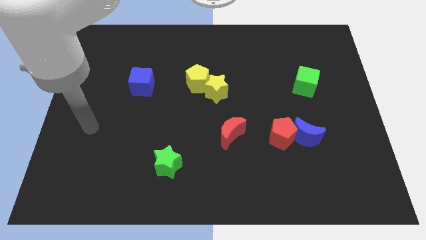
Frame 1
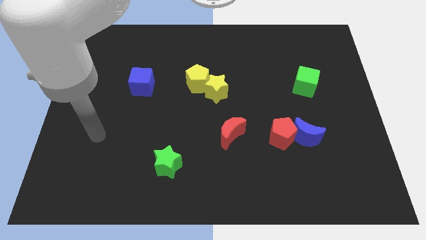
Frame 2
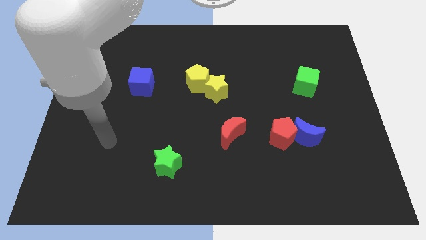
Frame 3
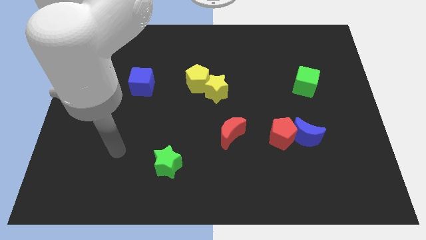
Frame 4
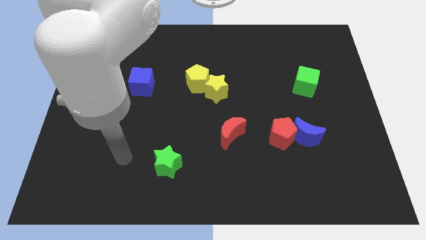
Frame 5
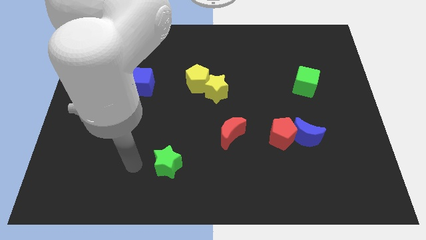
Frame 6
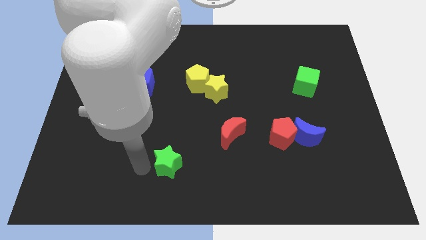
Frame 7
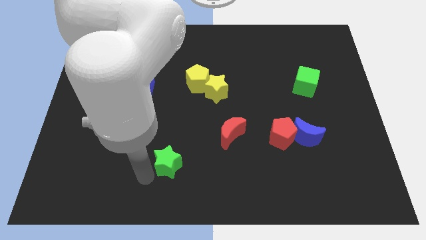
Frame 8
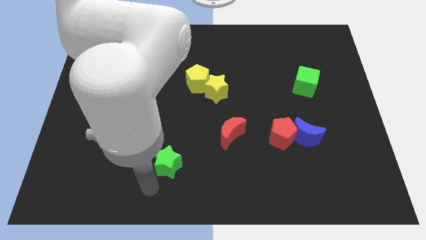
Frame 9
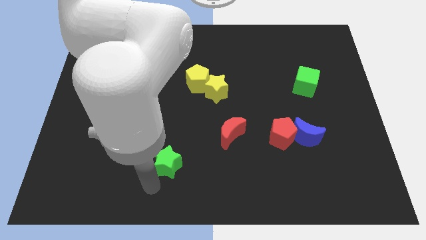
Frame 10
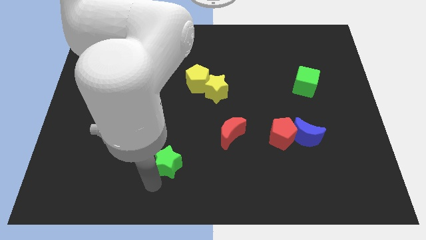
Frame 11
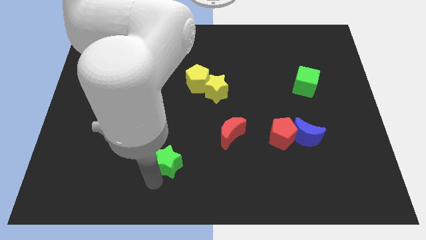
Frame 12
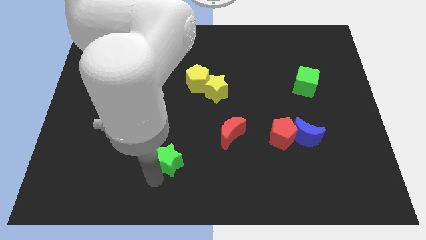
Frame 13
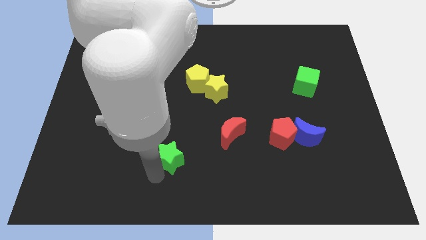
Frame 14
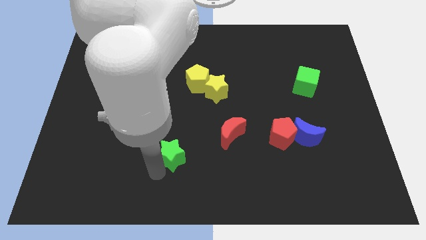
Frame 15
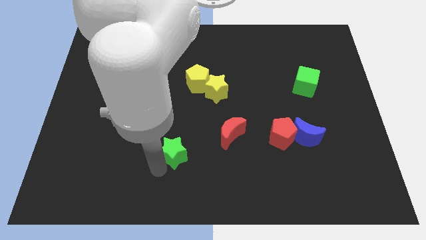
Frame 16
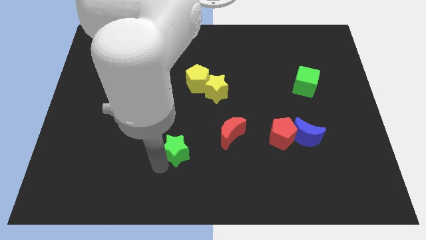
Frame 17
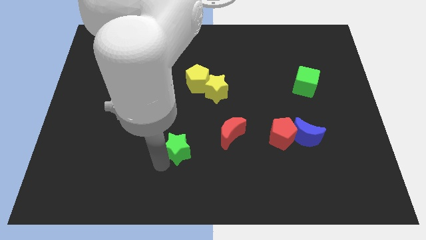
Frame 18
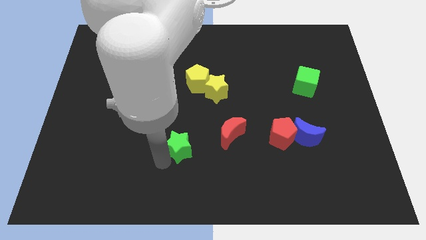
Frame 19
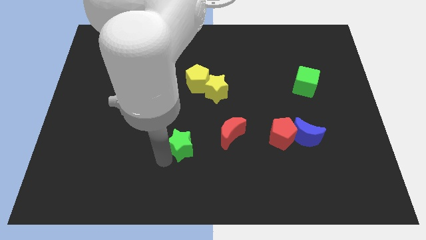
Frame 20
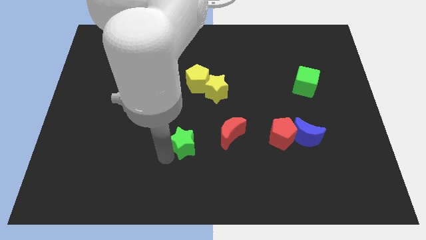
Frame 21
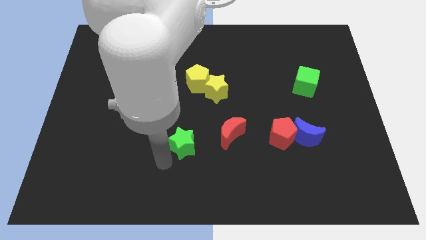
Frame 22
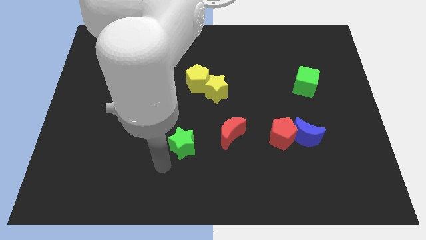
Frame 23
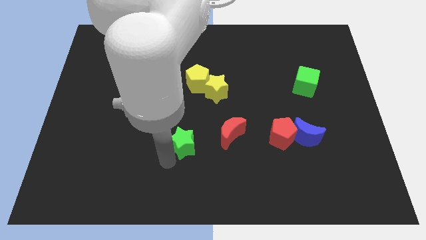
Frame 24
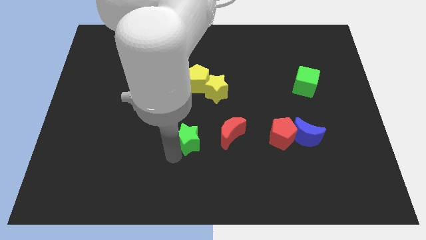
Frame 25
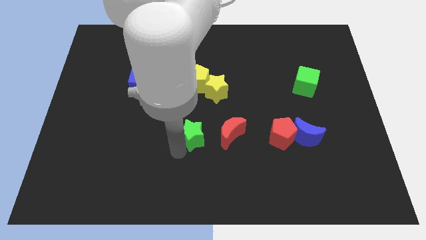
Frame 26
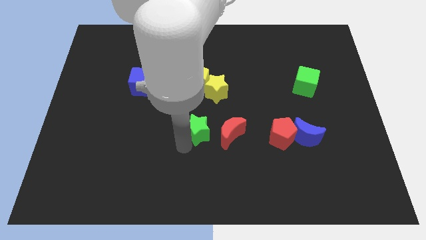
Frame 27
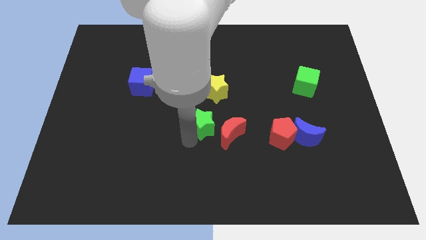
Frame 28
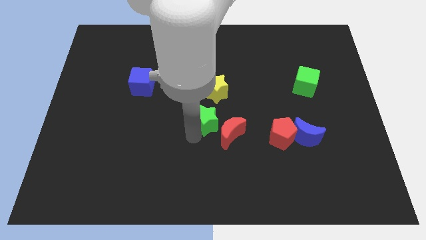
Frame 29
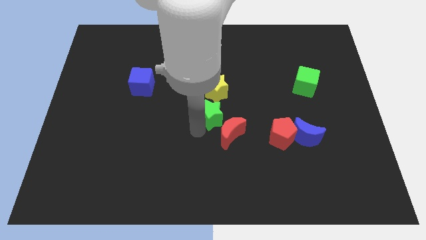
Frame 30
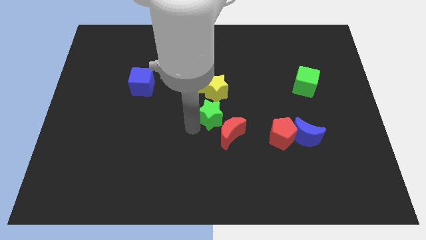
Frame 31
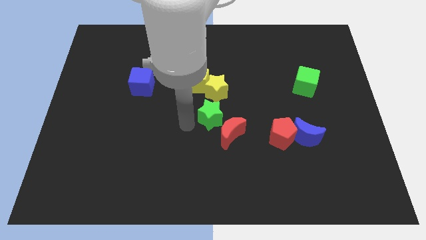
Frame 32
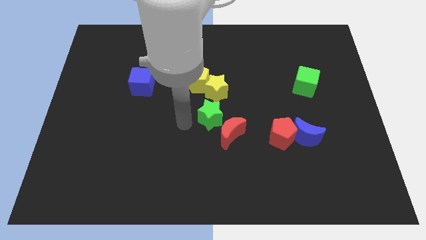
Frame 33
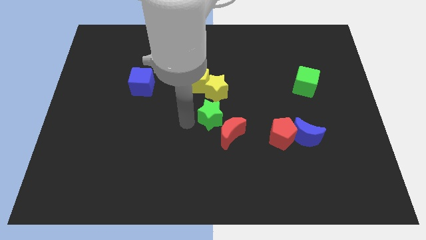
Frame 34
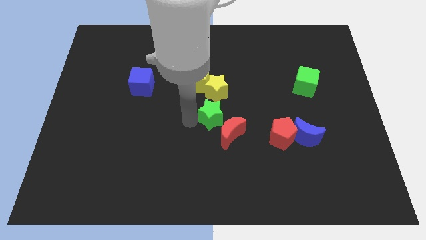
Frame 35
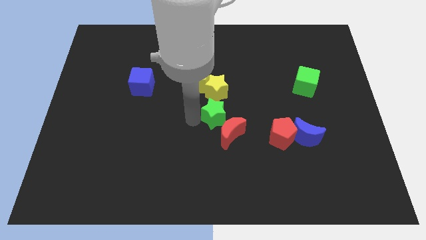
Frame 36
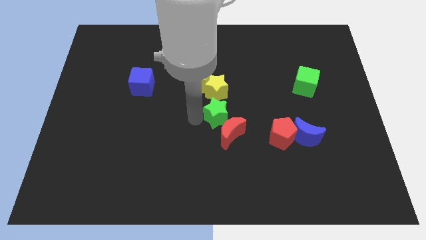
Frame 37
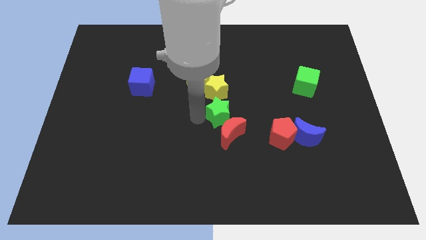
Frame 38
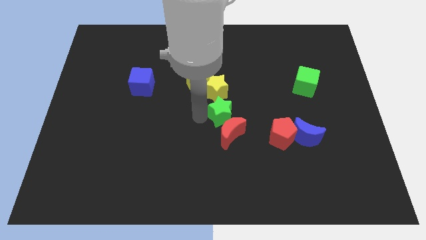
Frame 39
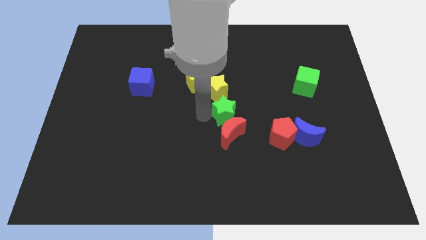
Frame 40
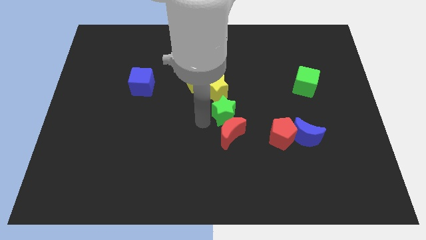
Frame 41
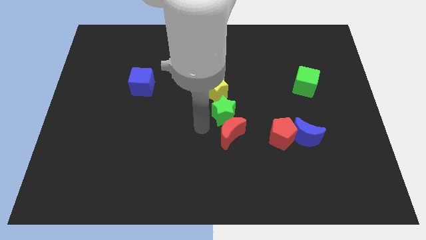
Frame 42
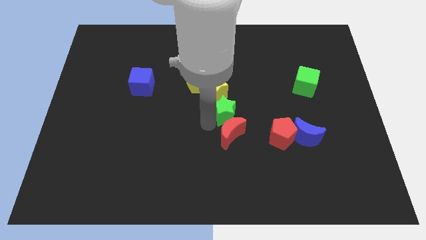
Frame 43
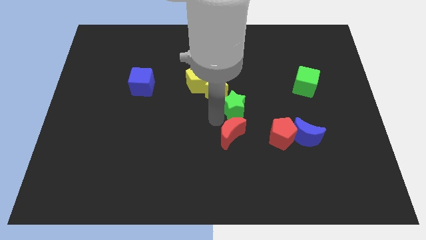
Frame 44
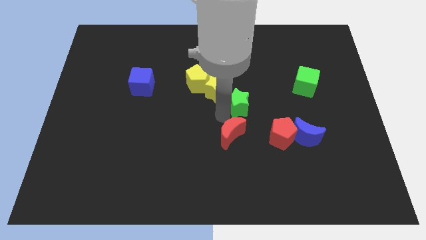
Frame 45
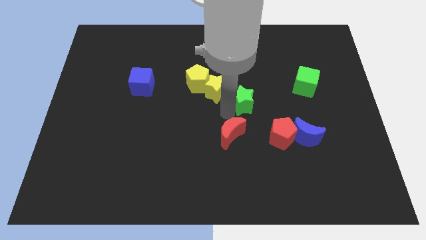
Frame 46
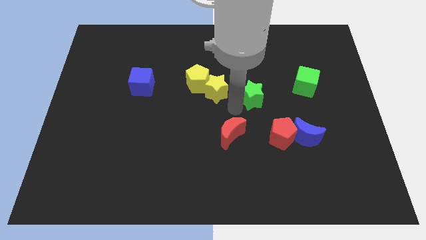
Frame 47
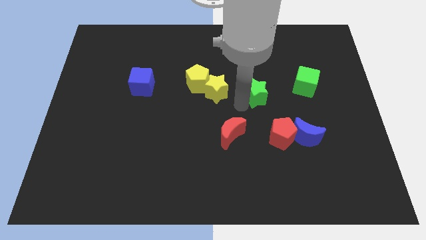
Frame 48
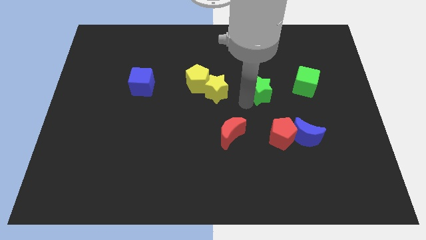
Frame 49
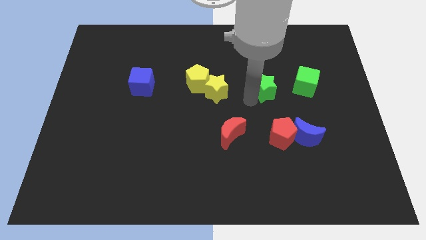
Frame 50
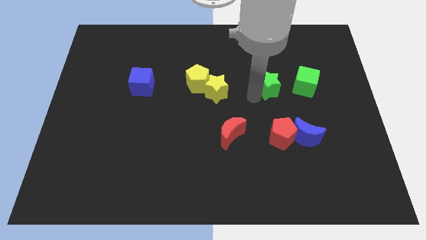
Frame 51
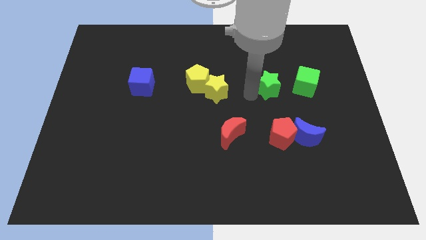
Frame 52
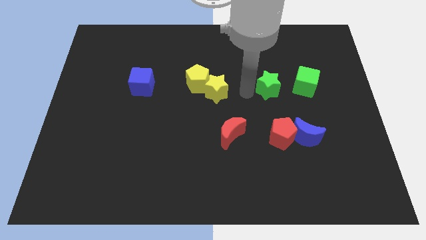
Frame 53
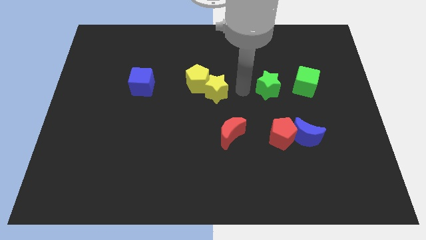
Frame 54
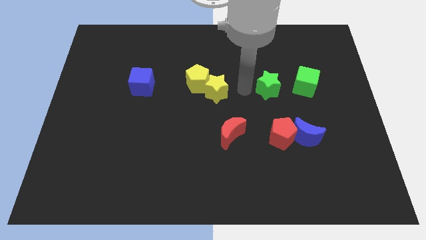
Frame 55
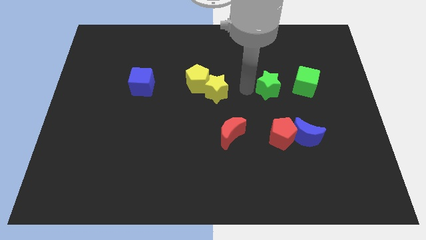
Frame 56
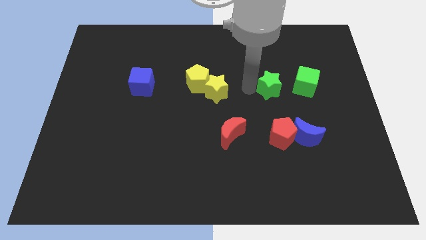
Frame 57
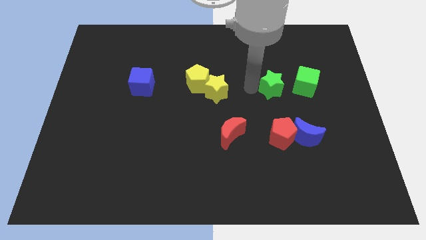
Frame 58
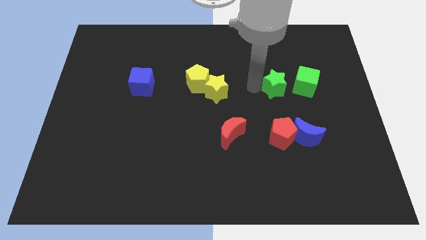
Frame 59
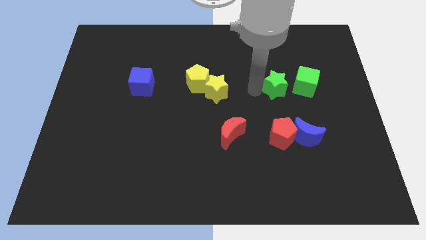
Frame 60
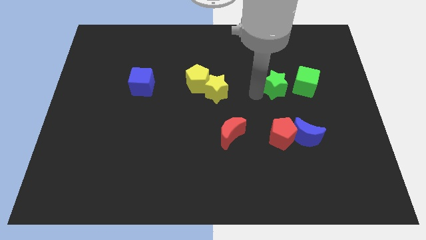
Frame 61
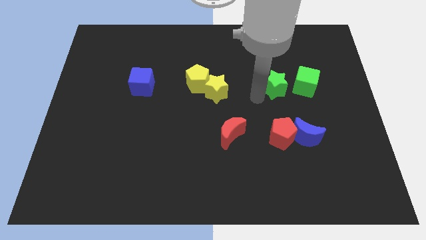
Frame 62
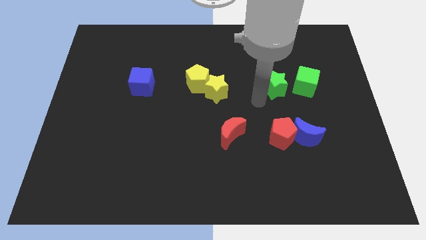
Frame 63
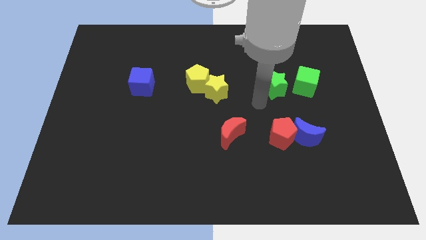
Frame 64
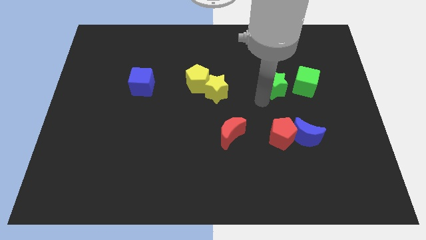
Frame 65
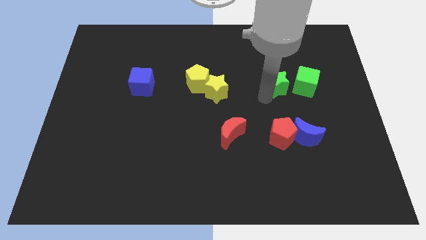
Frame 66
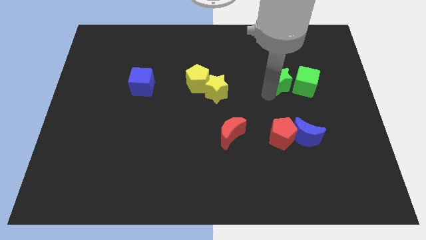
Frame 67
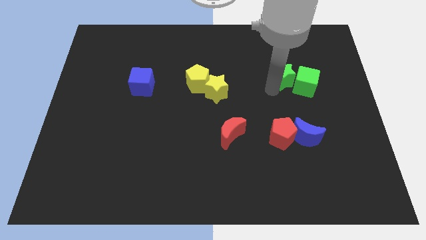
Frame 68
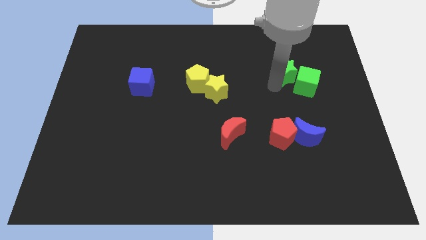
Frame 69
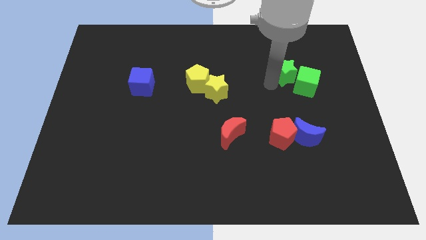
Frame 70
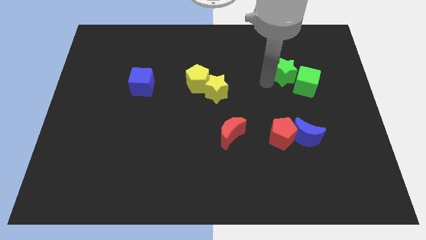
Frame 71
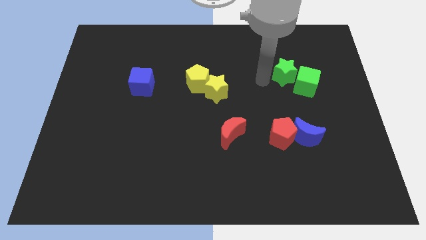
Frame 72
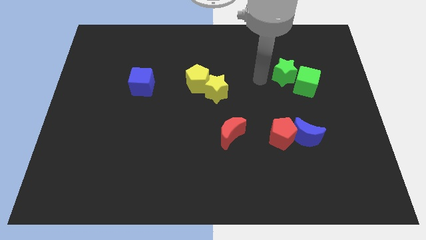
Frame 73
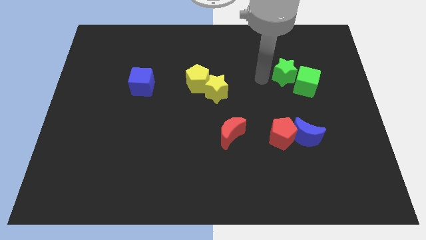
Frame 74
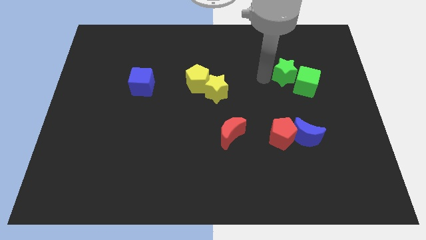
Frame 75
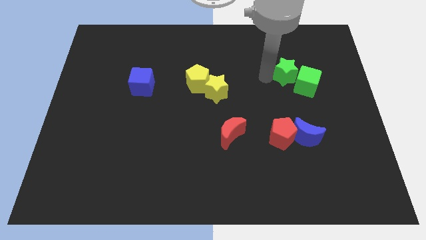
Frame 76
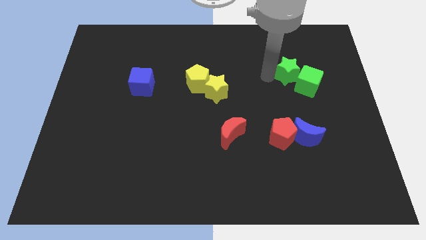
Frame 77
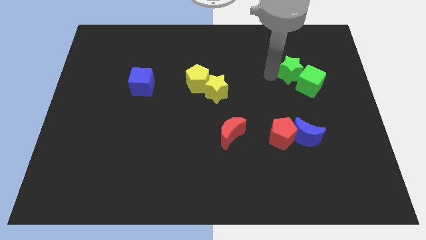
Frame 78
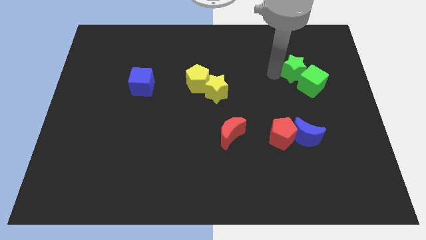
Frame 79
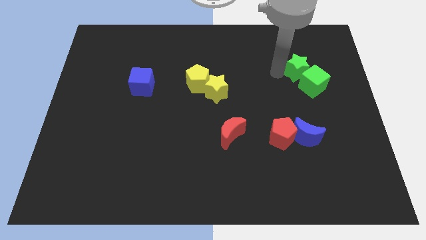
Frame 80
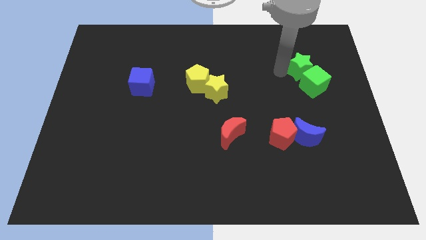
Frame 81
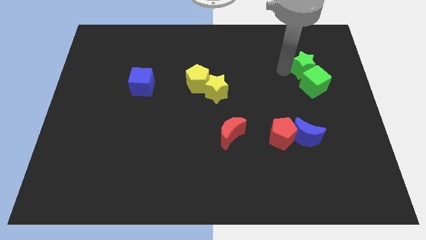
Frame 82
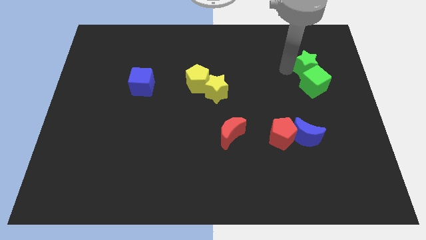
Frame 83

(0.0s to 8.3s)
push the green star diagonally up and to the right of the green cube
